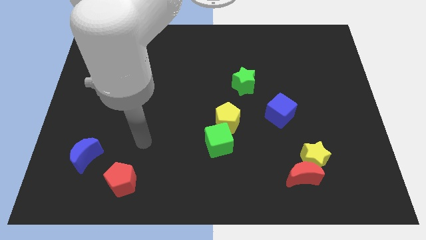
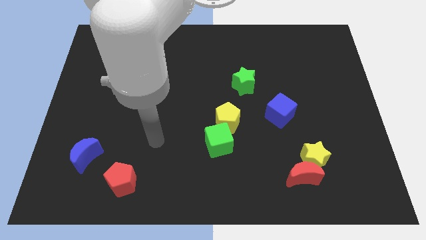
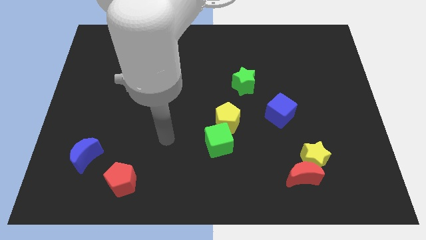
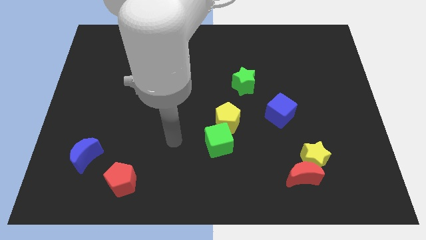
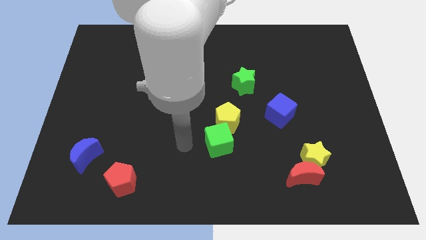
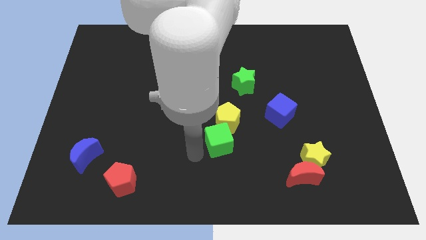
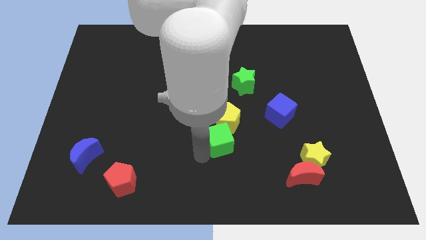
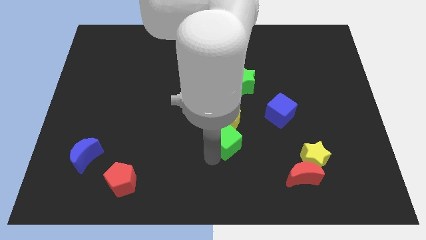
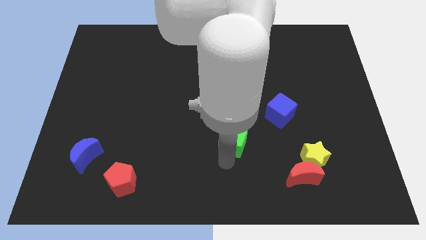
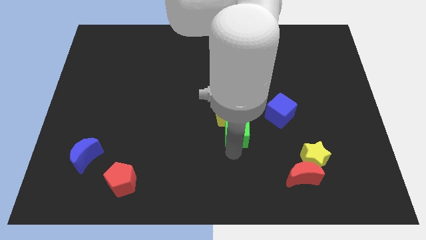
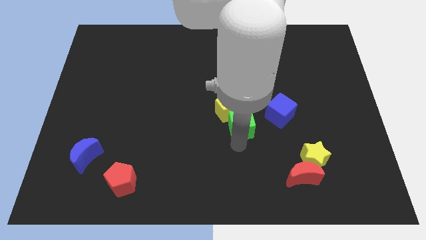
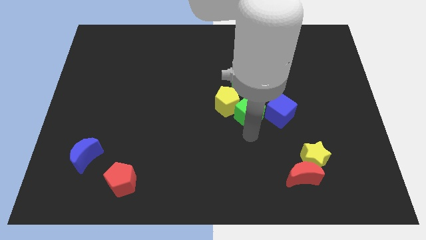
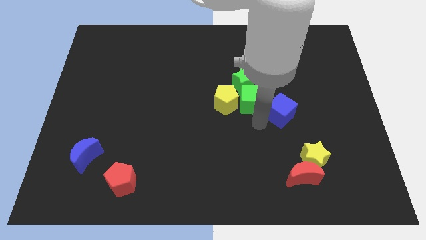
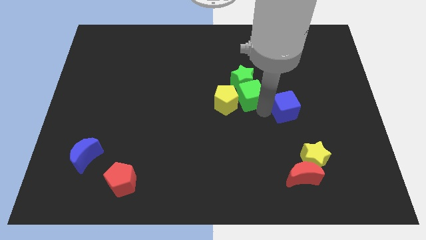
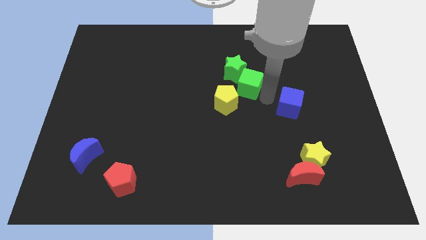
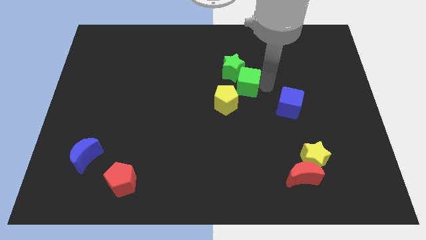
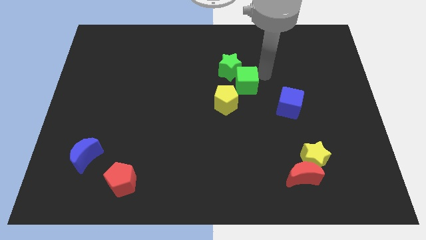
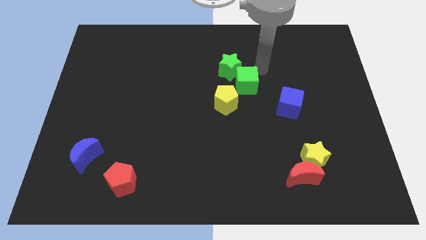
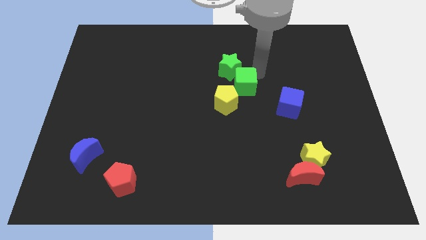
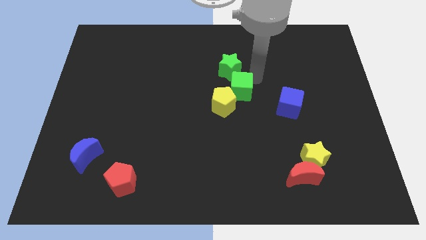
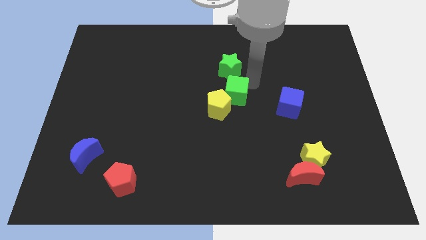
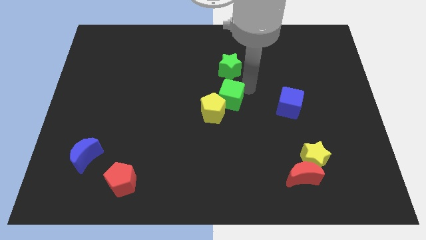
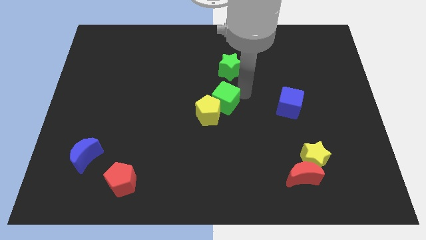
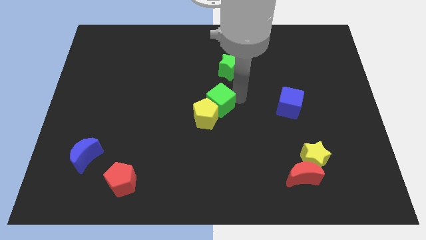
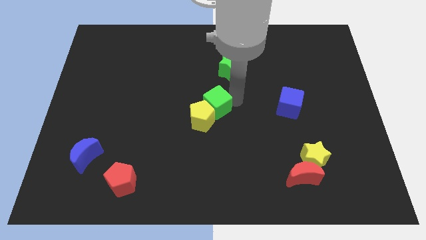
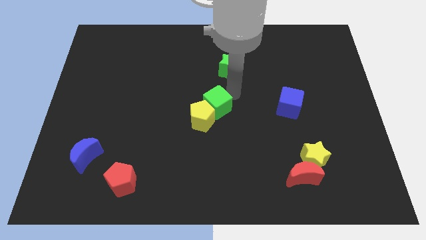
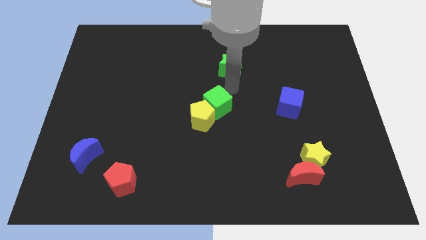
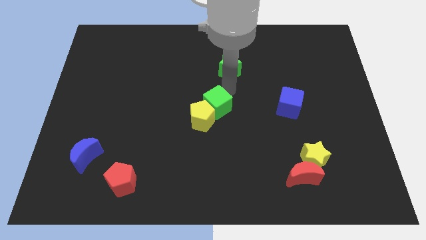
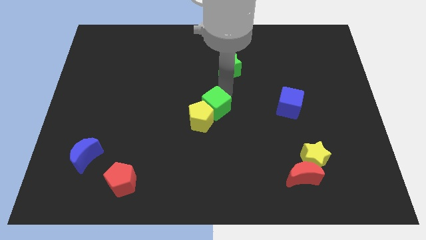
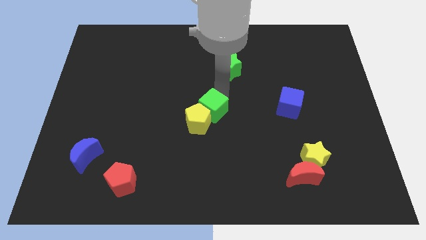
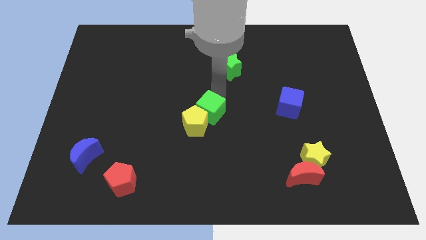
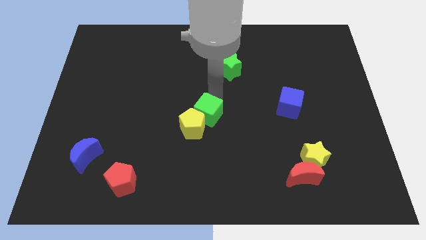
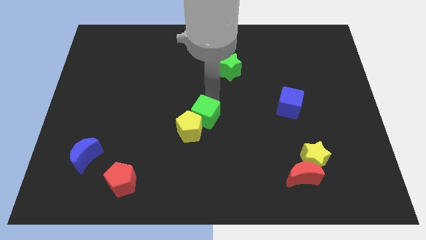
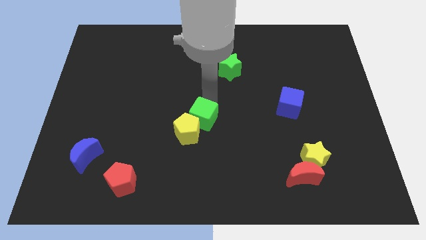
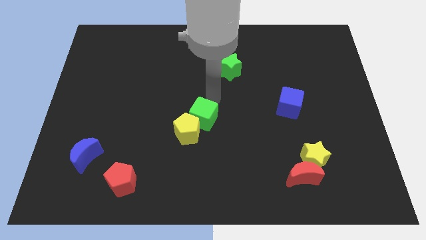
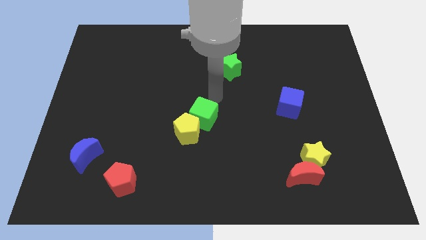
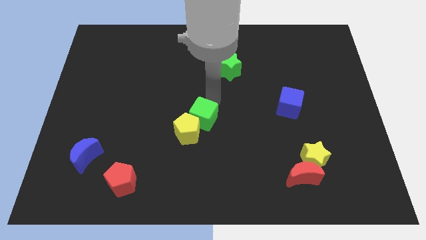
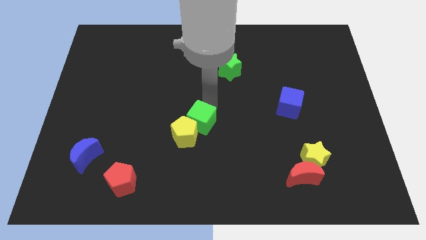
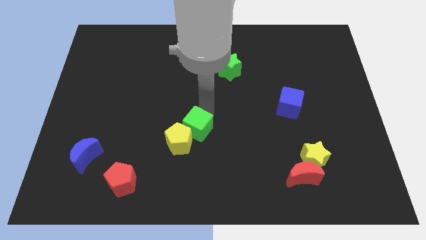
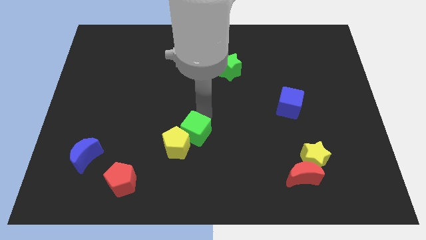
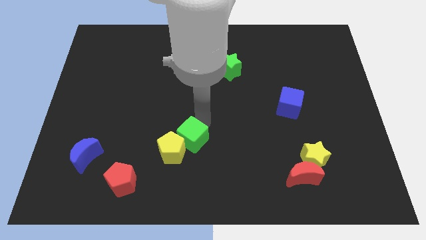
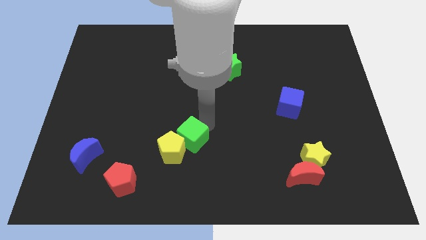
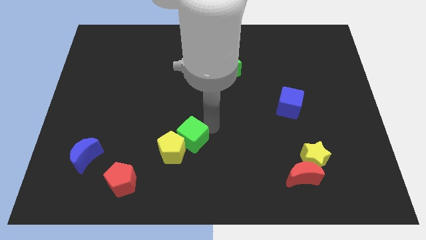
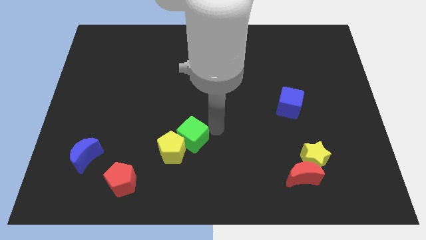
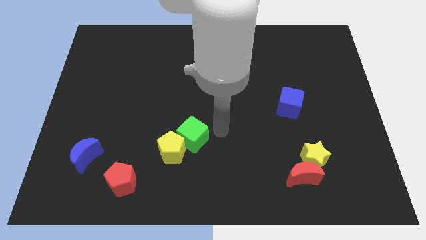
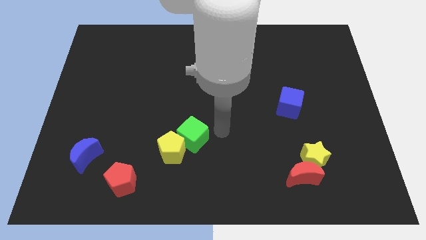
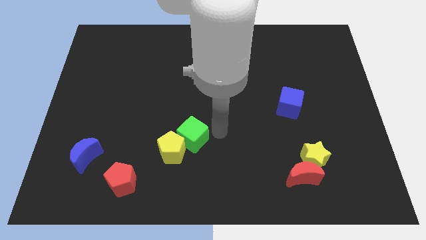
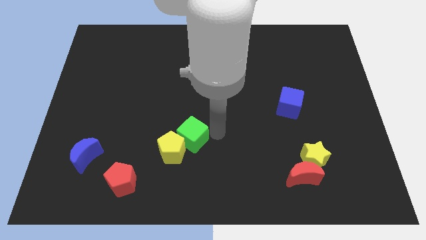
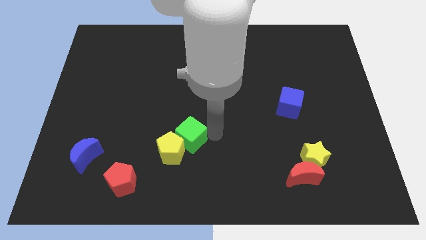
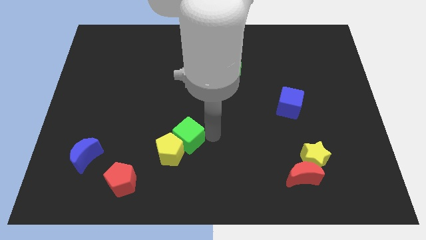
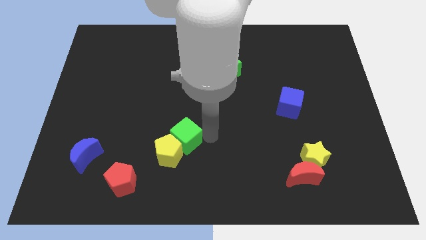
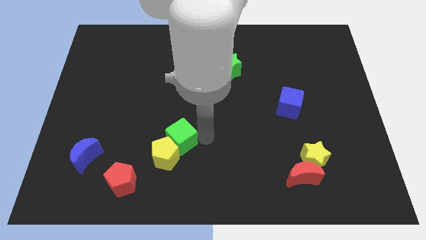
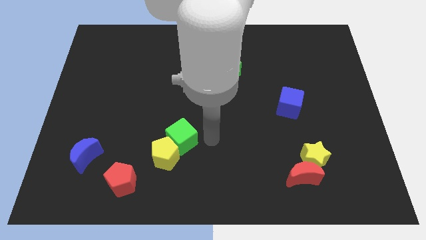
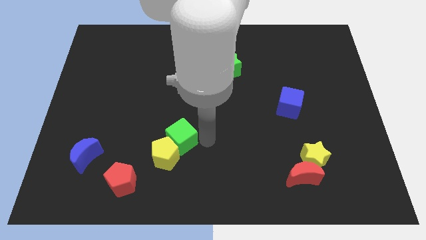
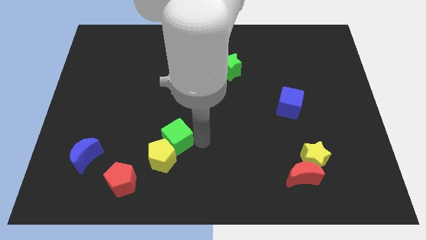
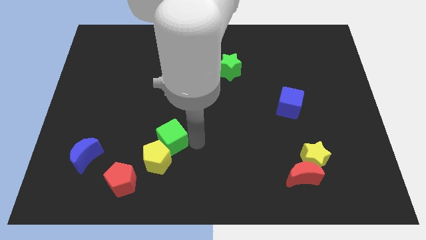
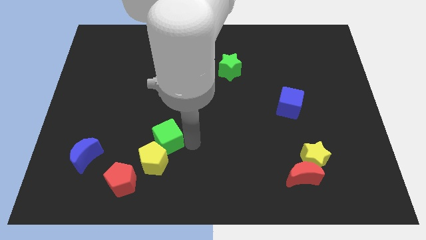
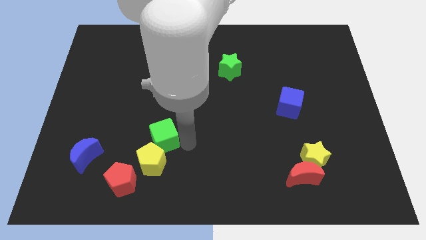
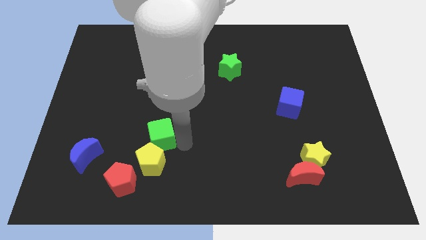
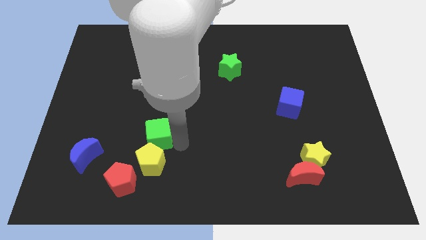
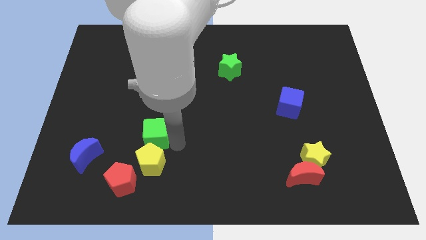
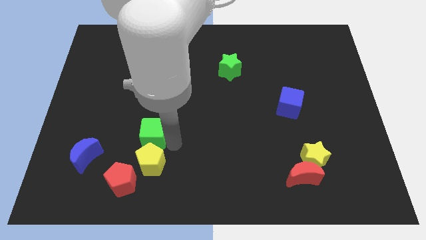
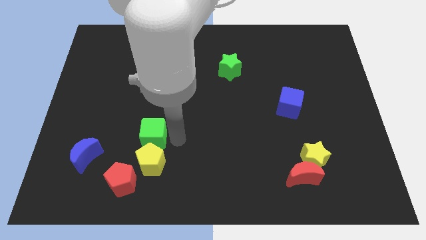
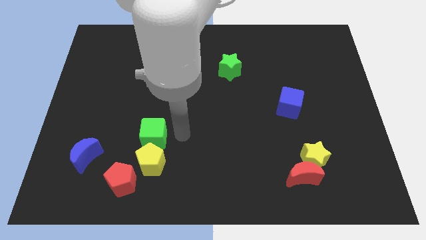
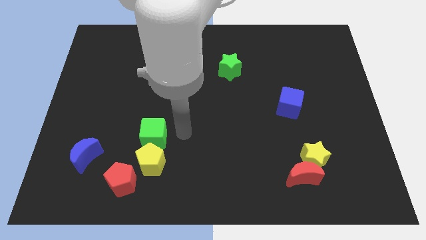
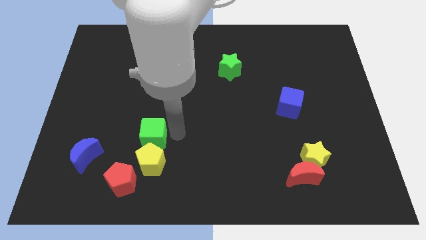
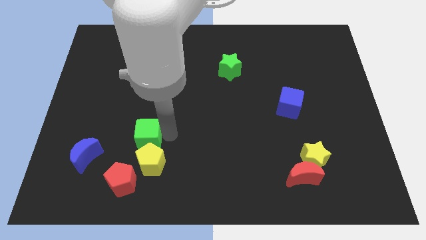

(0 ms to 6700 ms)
push the green cube to the top side of the red pentagon

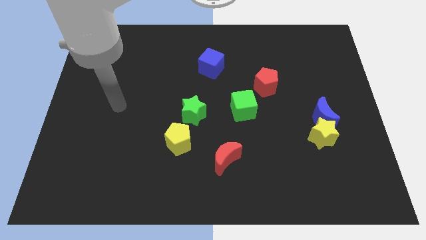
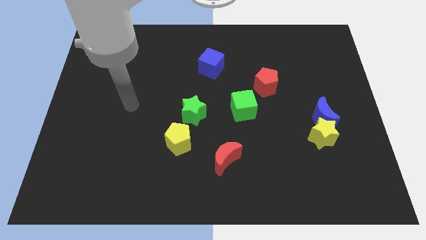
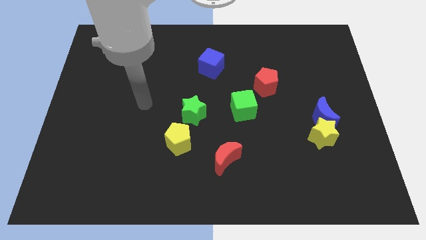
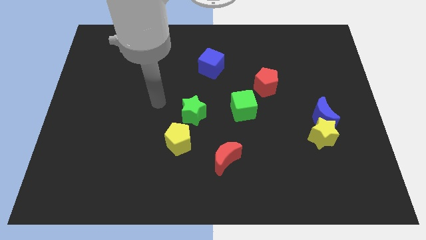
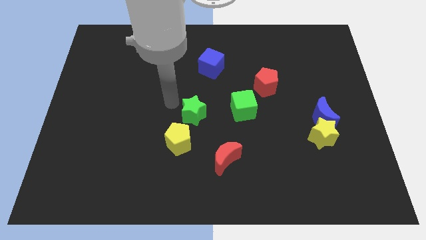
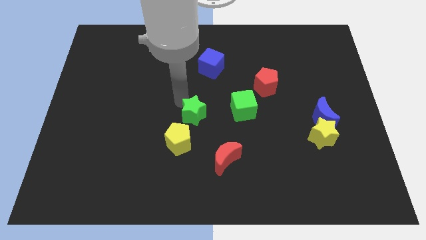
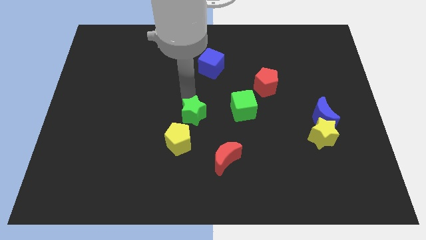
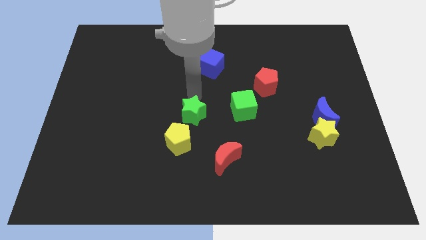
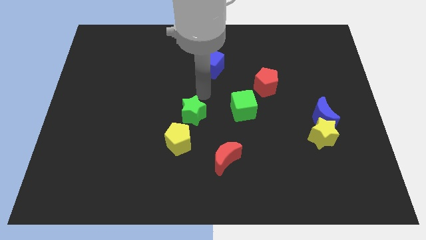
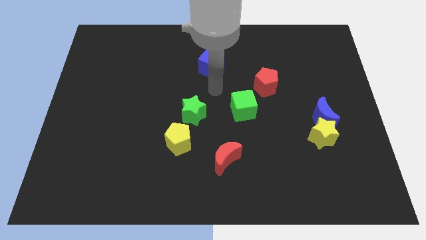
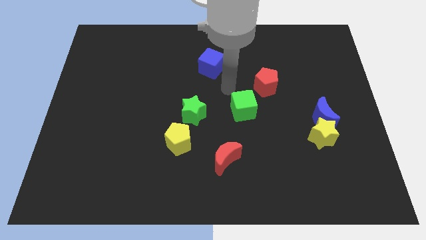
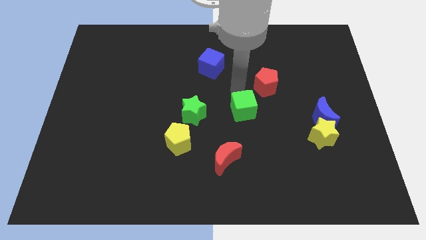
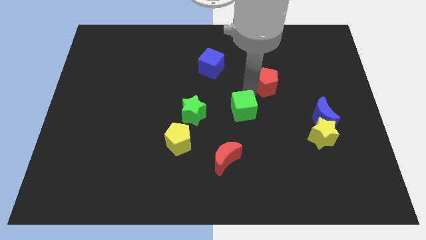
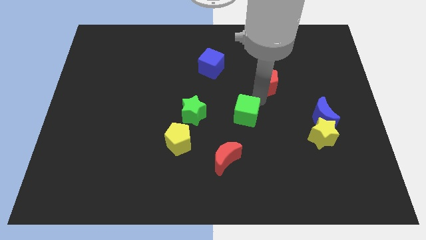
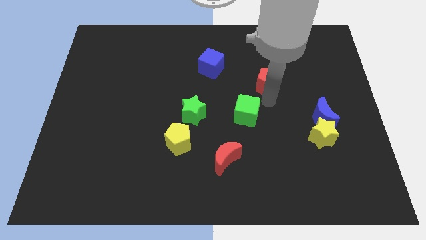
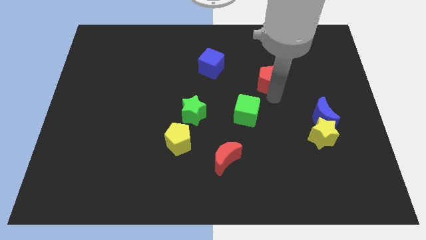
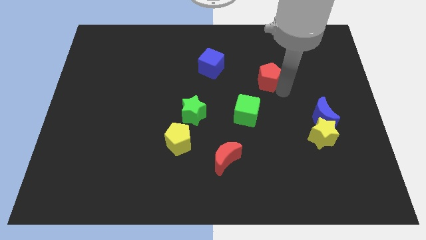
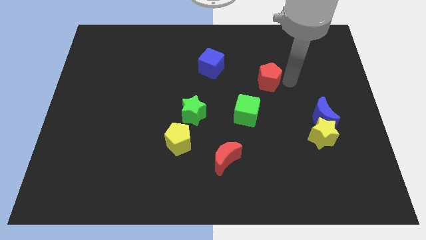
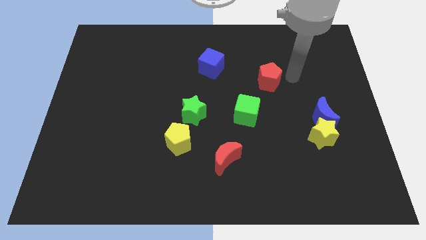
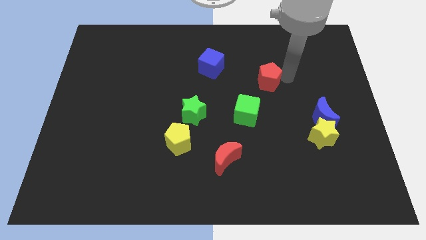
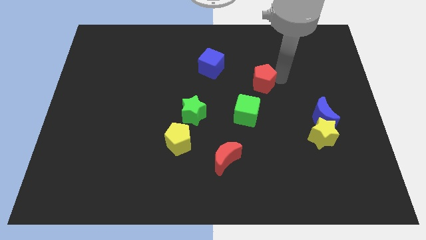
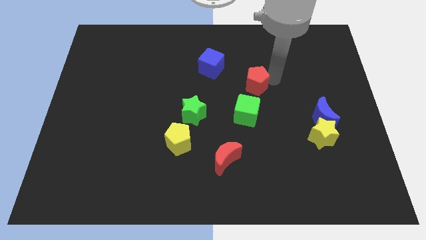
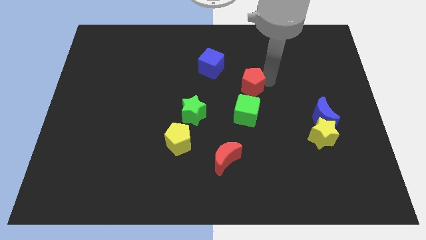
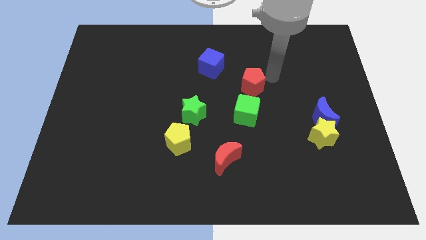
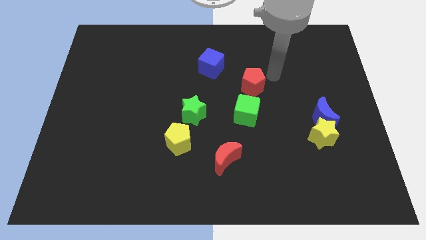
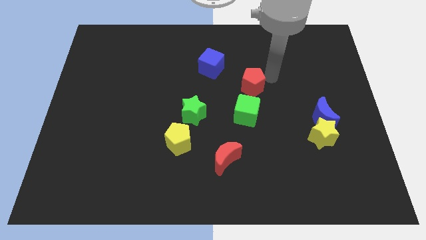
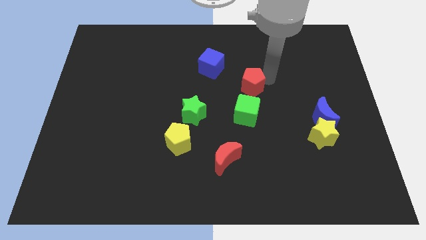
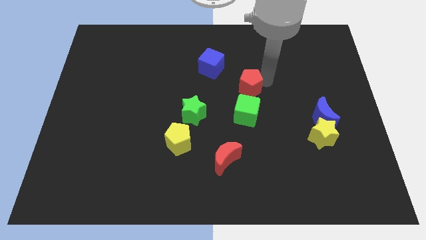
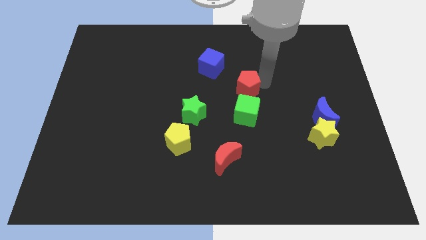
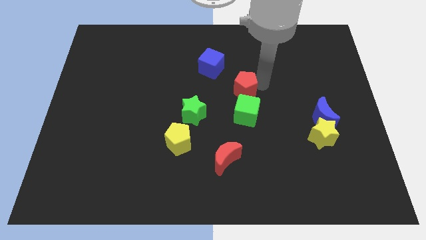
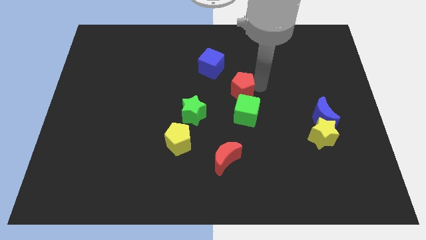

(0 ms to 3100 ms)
move the red pentagon to the top left of the green cube
